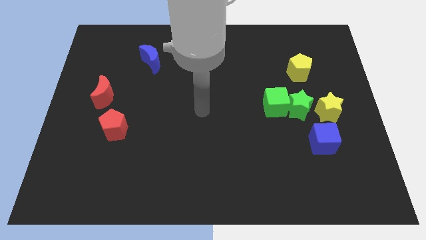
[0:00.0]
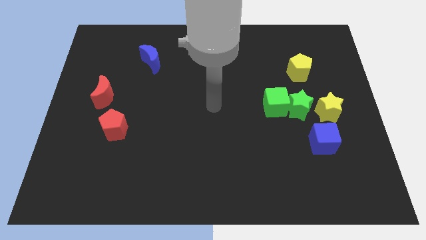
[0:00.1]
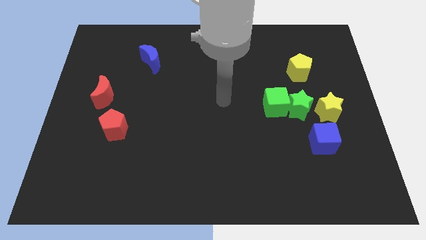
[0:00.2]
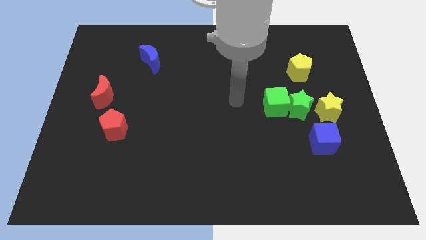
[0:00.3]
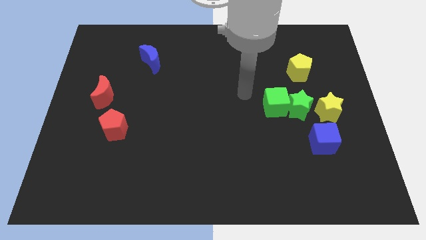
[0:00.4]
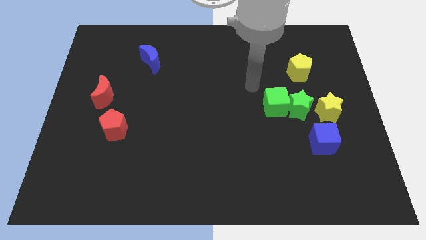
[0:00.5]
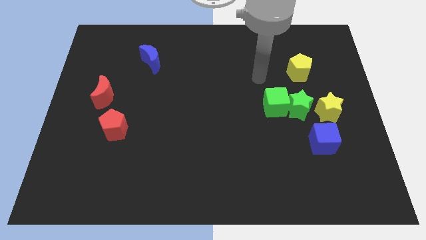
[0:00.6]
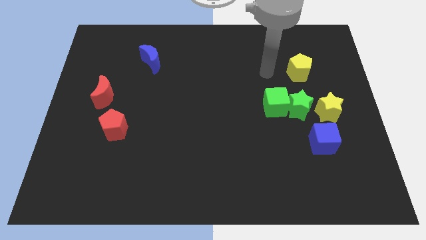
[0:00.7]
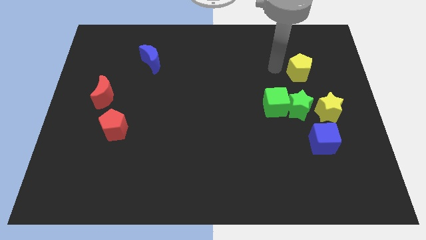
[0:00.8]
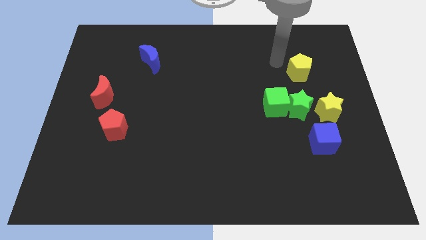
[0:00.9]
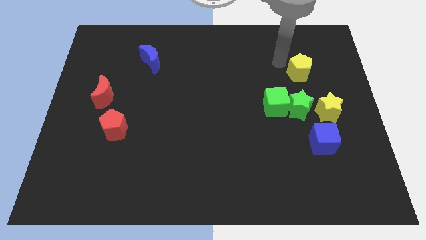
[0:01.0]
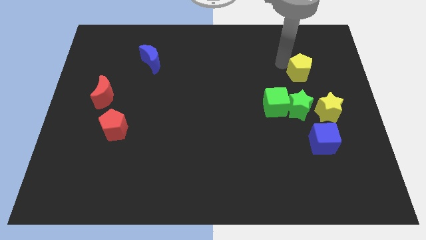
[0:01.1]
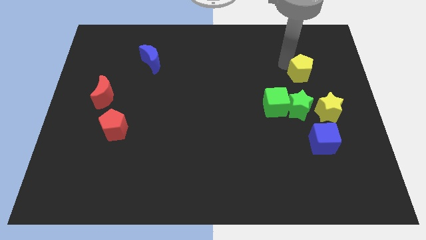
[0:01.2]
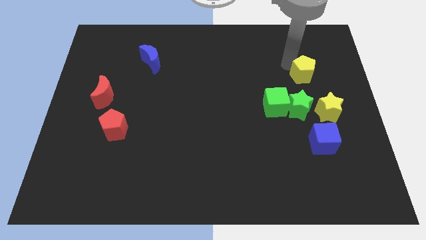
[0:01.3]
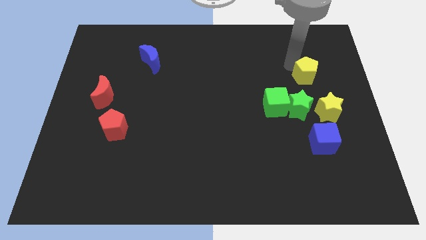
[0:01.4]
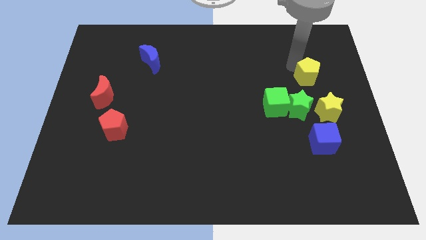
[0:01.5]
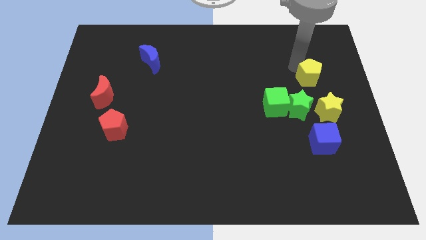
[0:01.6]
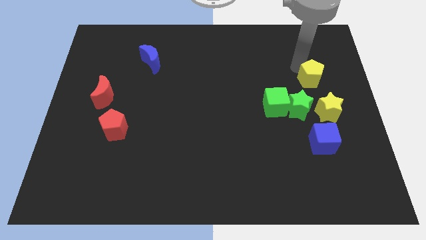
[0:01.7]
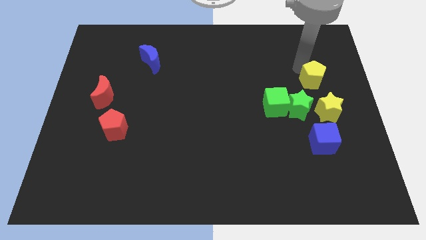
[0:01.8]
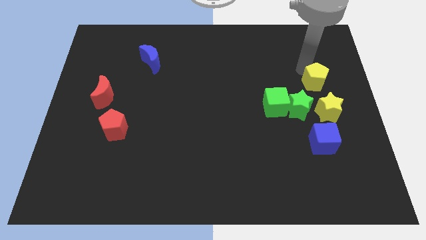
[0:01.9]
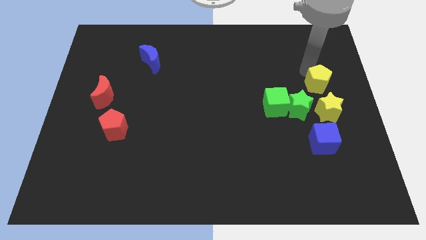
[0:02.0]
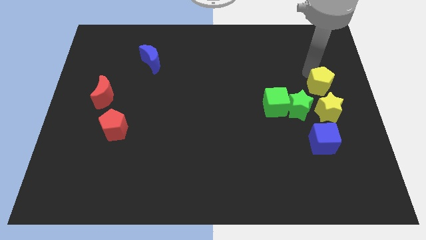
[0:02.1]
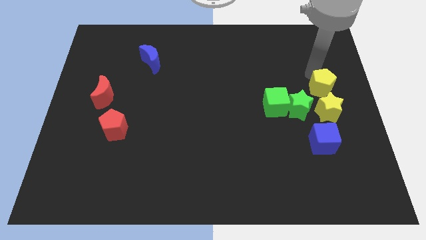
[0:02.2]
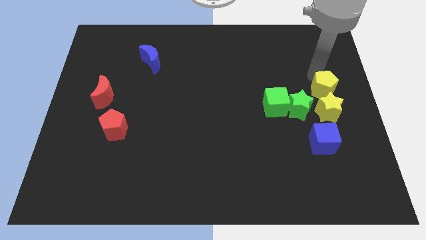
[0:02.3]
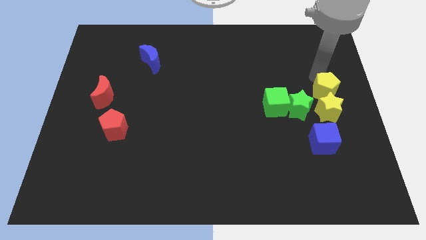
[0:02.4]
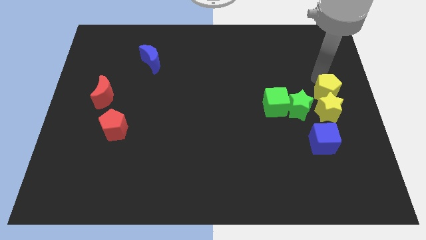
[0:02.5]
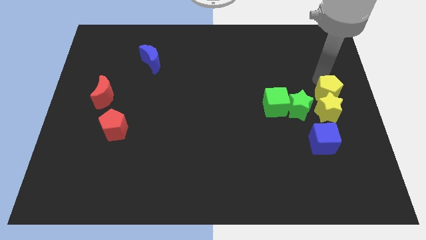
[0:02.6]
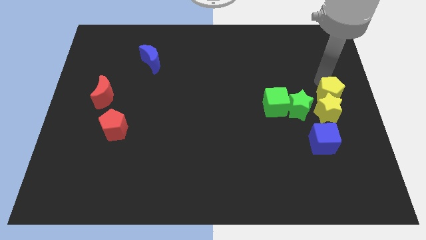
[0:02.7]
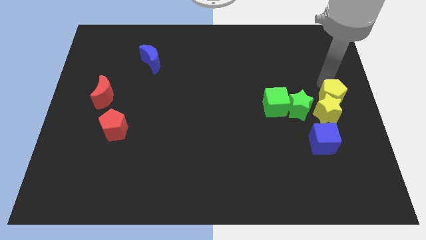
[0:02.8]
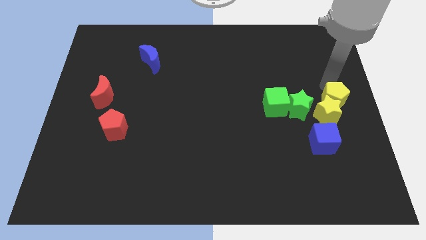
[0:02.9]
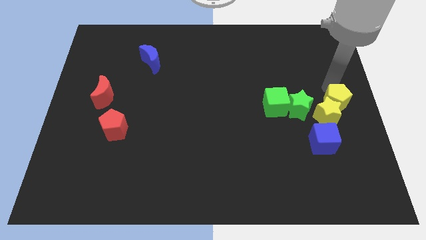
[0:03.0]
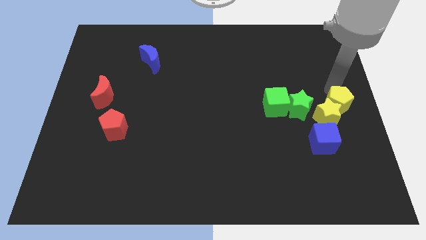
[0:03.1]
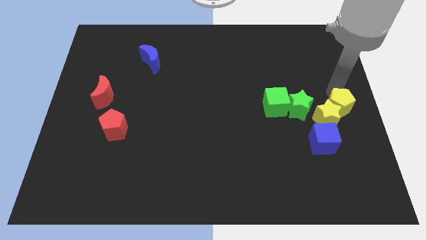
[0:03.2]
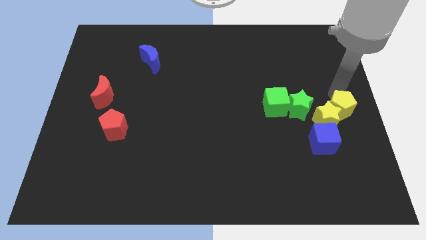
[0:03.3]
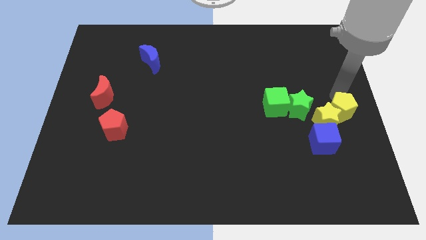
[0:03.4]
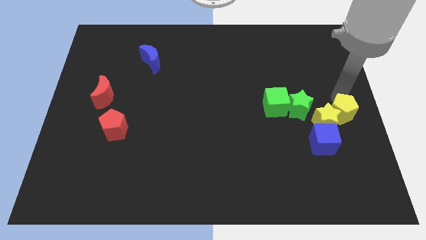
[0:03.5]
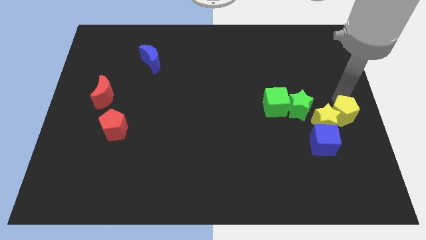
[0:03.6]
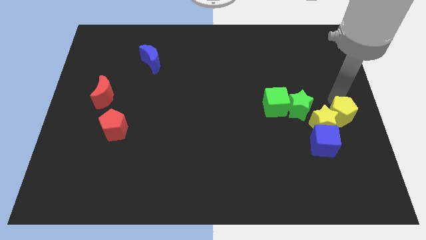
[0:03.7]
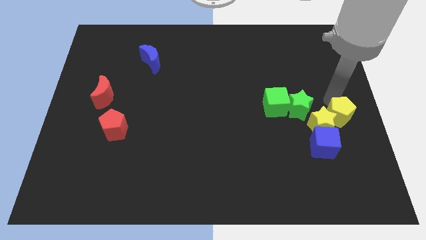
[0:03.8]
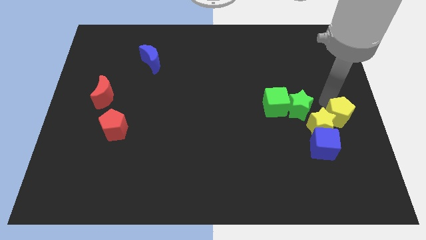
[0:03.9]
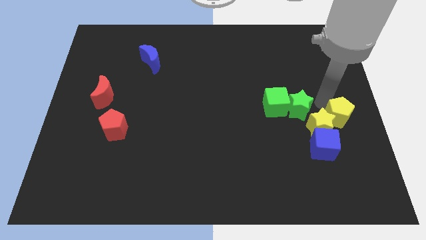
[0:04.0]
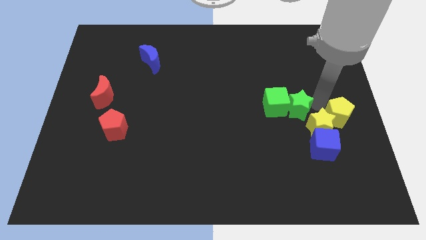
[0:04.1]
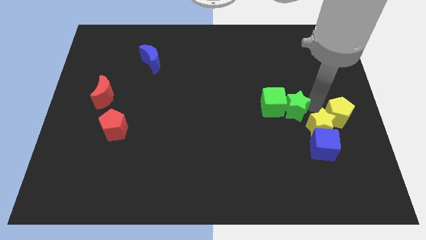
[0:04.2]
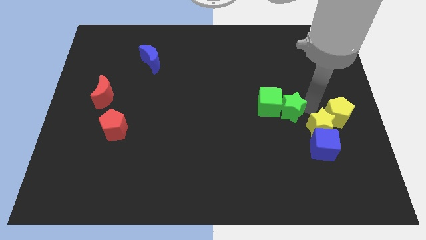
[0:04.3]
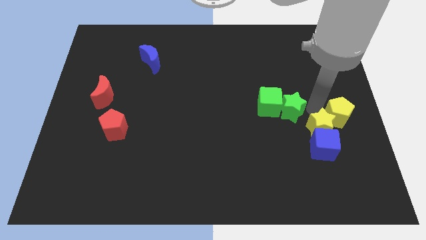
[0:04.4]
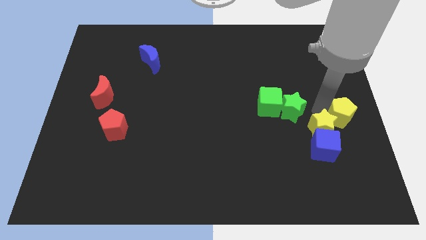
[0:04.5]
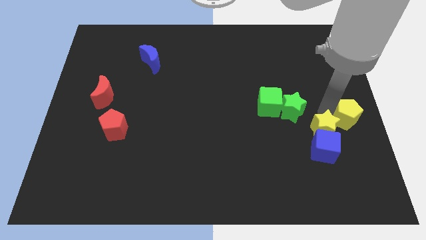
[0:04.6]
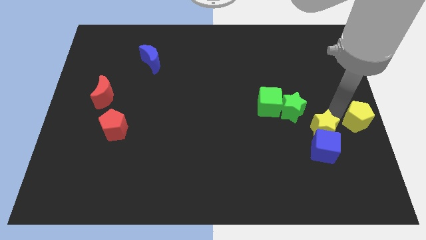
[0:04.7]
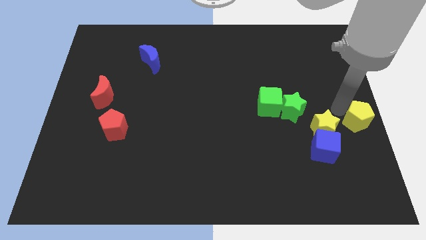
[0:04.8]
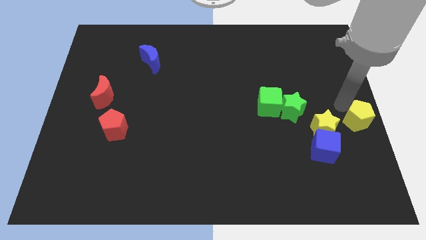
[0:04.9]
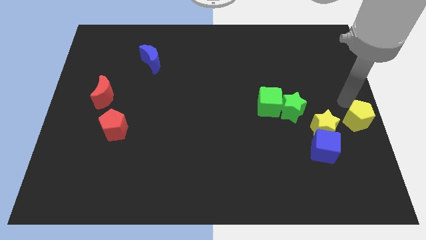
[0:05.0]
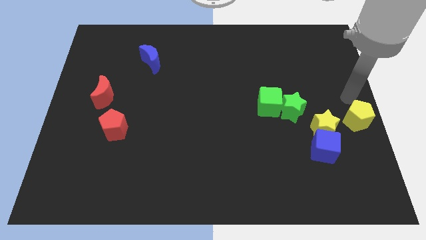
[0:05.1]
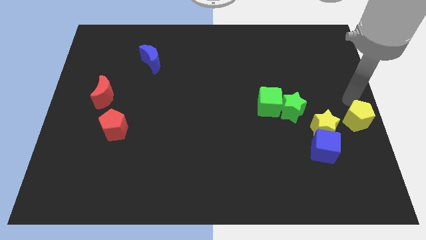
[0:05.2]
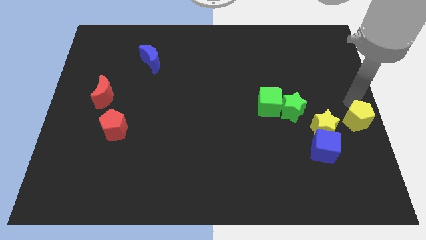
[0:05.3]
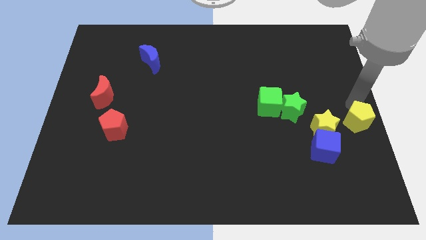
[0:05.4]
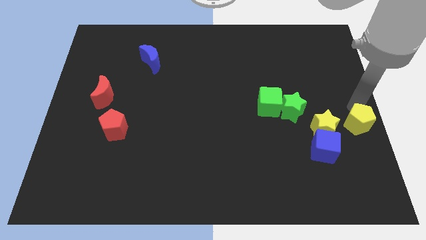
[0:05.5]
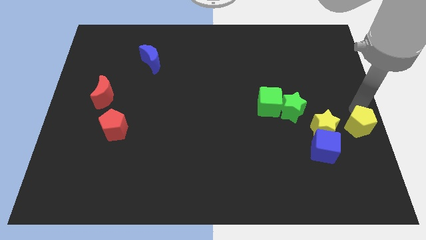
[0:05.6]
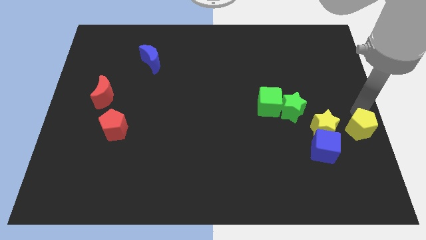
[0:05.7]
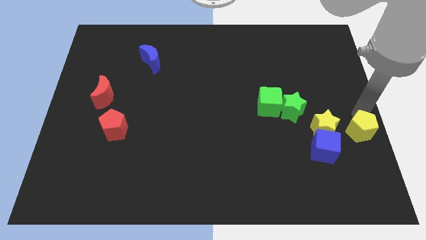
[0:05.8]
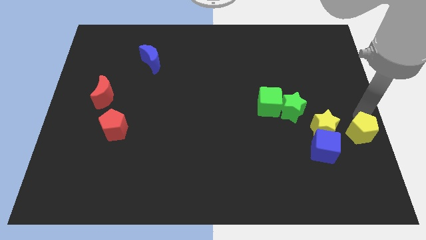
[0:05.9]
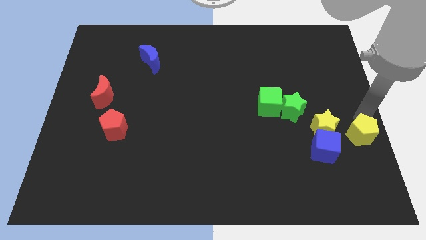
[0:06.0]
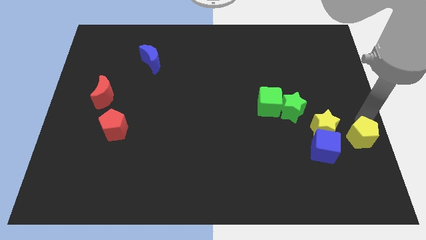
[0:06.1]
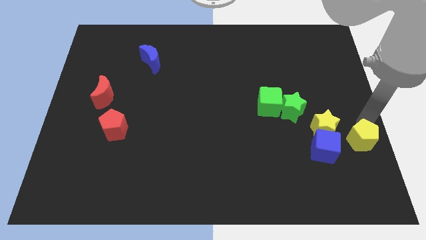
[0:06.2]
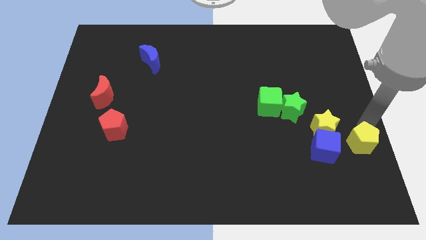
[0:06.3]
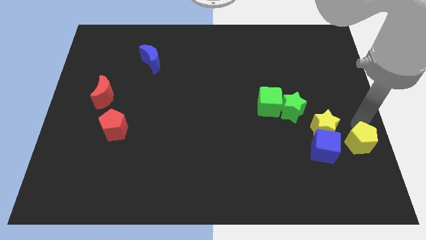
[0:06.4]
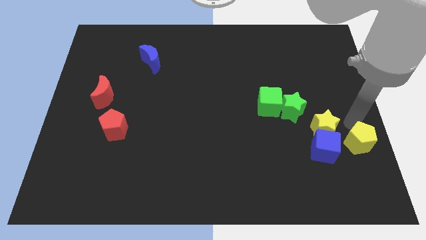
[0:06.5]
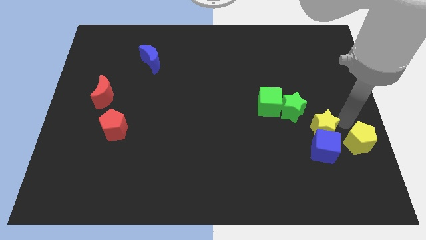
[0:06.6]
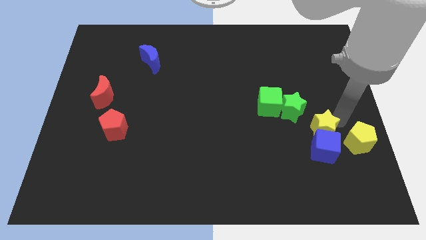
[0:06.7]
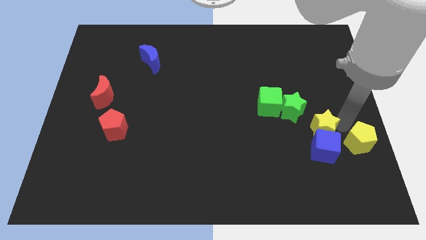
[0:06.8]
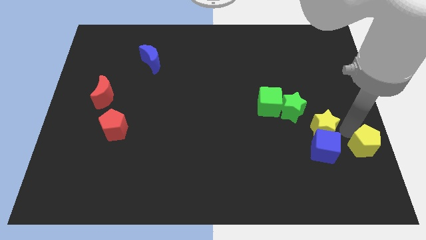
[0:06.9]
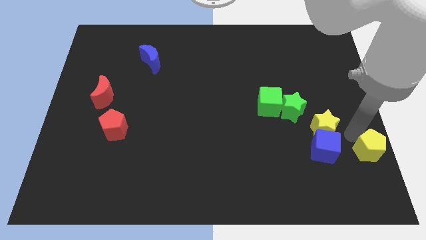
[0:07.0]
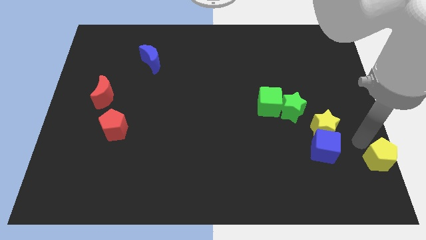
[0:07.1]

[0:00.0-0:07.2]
put the yellow pentagon to the bottom right corner
